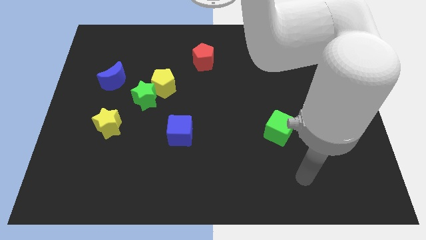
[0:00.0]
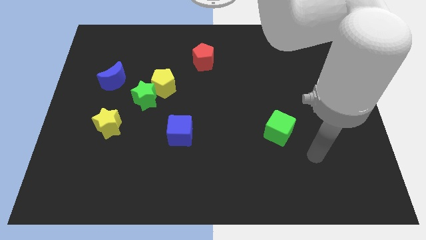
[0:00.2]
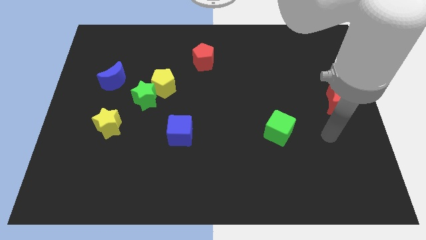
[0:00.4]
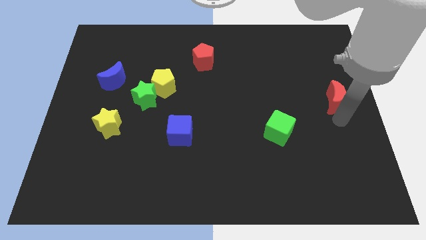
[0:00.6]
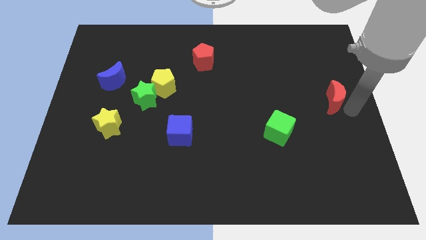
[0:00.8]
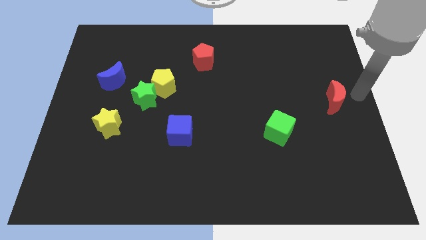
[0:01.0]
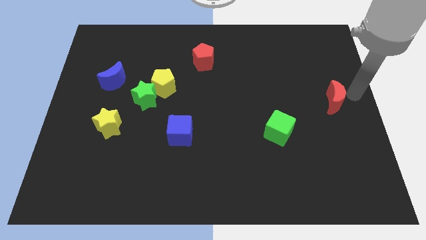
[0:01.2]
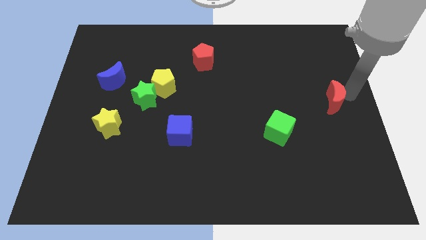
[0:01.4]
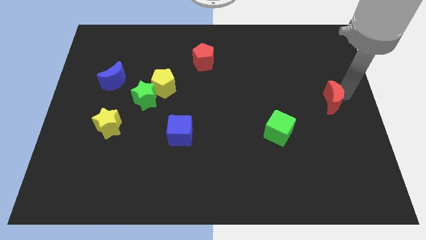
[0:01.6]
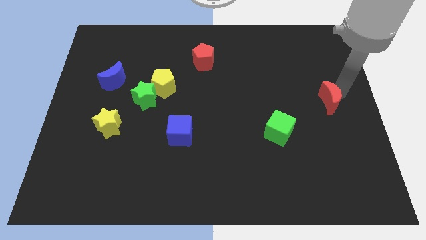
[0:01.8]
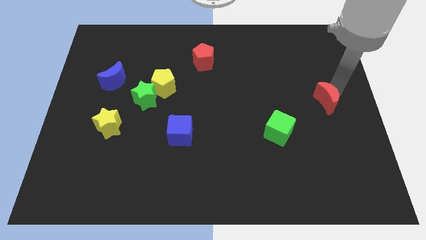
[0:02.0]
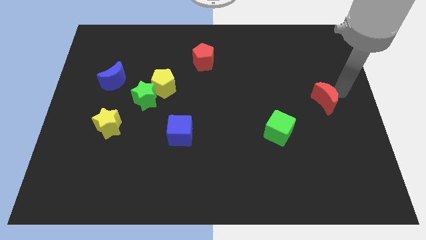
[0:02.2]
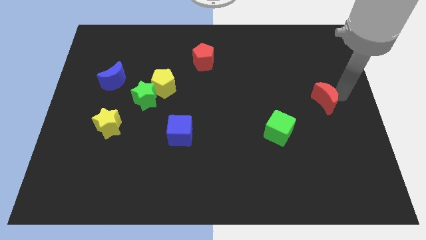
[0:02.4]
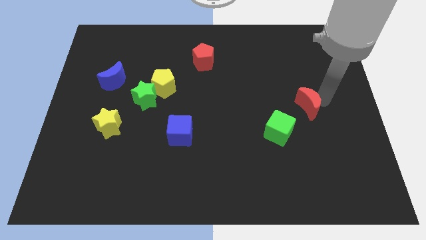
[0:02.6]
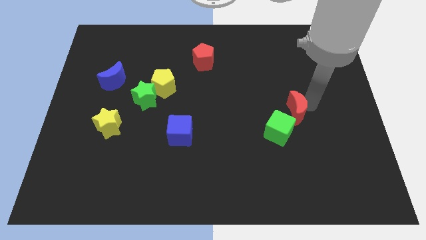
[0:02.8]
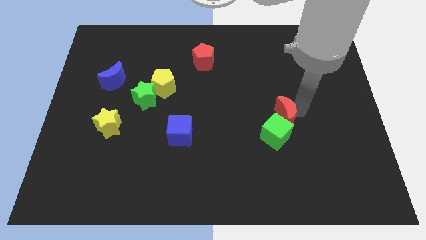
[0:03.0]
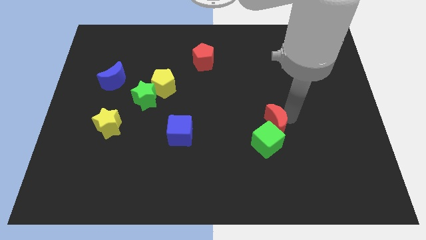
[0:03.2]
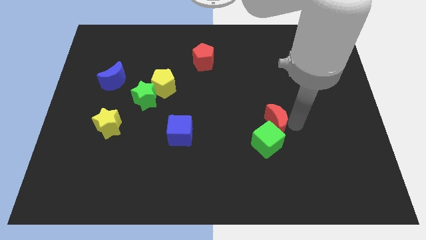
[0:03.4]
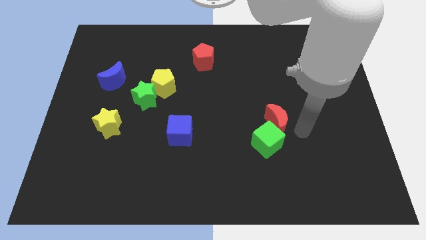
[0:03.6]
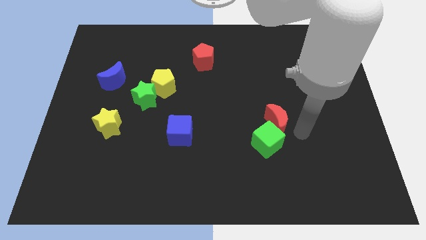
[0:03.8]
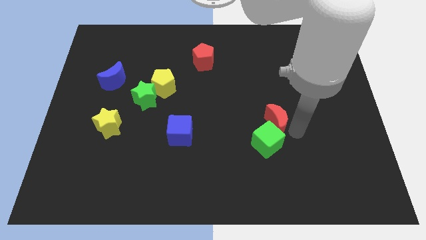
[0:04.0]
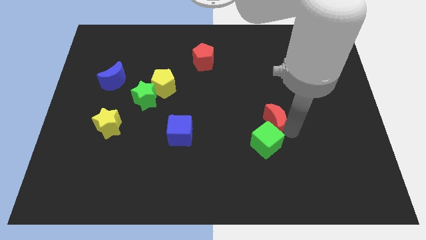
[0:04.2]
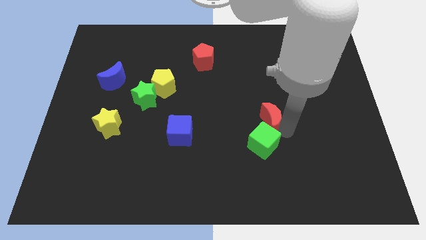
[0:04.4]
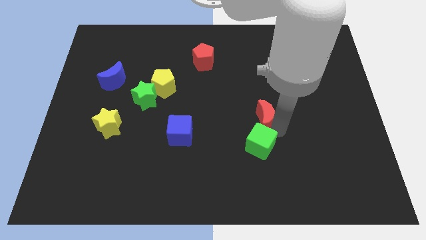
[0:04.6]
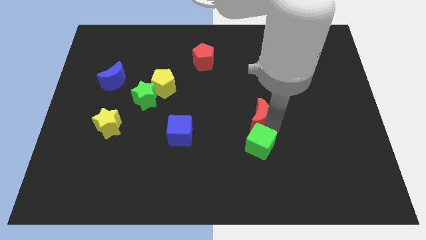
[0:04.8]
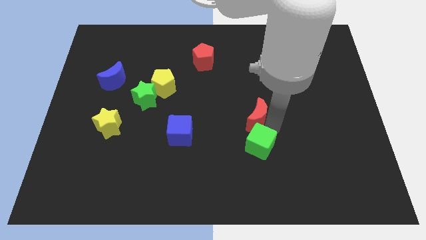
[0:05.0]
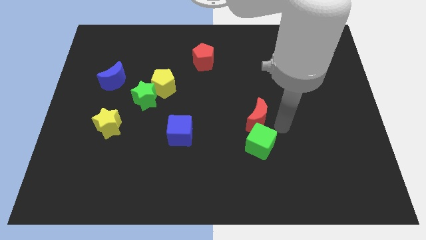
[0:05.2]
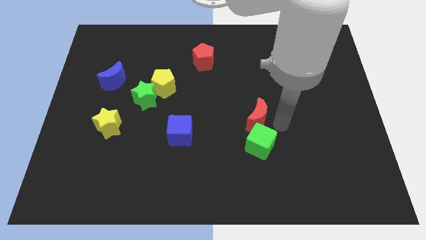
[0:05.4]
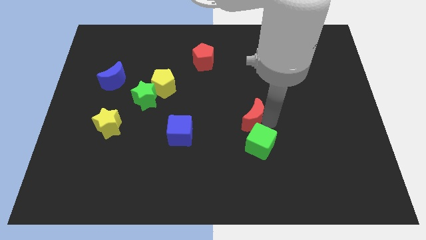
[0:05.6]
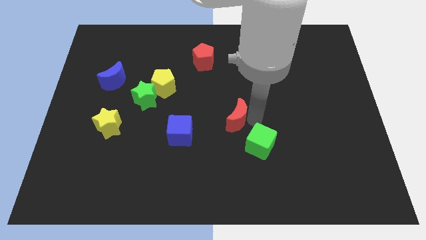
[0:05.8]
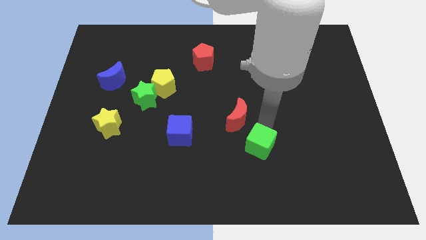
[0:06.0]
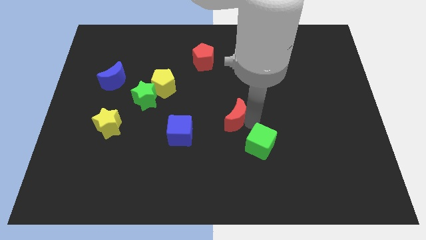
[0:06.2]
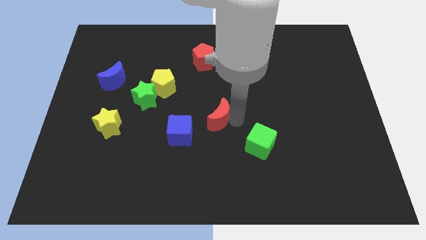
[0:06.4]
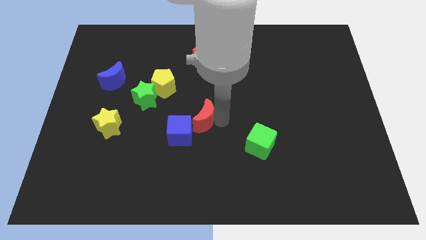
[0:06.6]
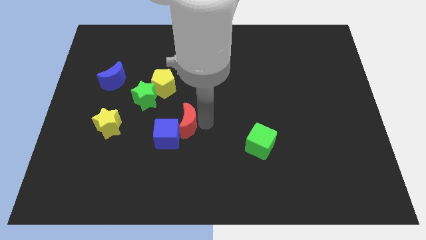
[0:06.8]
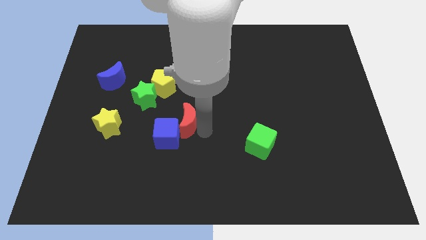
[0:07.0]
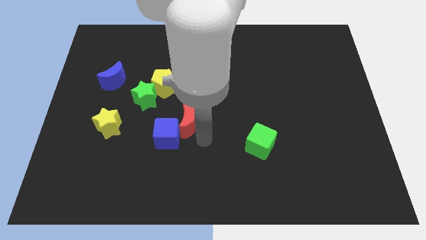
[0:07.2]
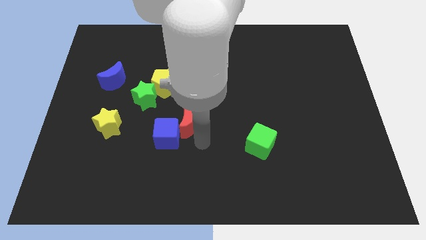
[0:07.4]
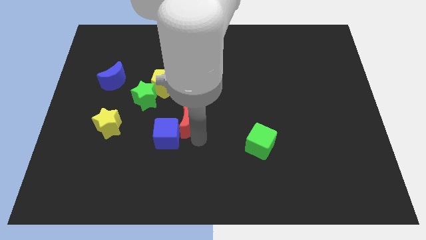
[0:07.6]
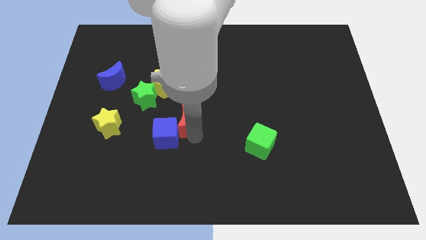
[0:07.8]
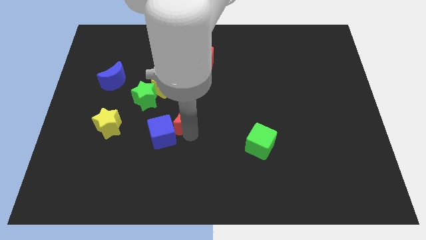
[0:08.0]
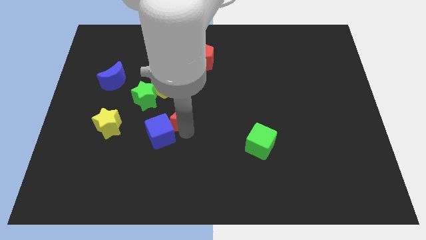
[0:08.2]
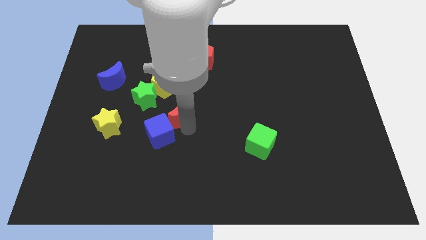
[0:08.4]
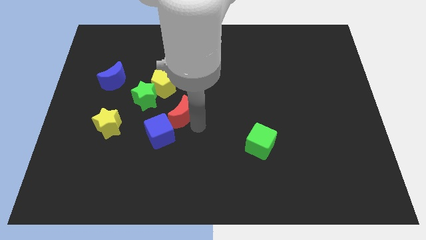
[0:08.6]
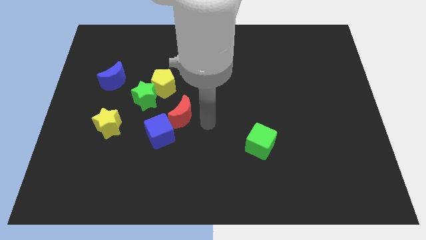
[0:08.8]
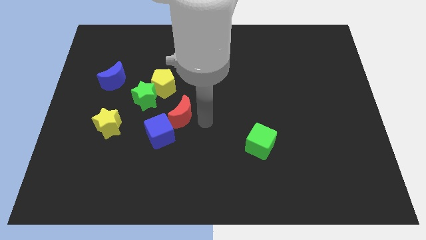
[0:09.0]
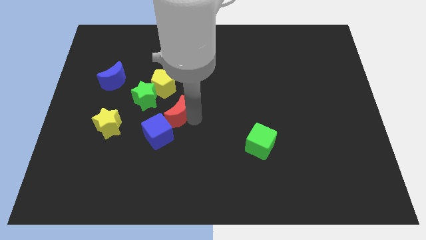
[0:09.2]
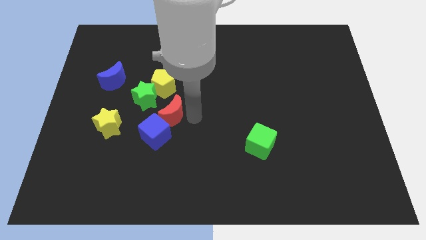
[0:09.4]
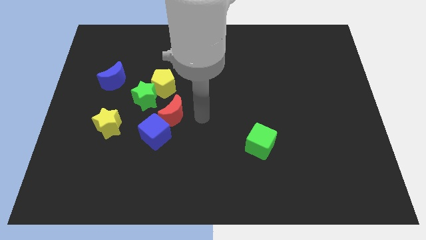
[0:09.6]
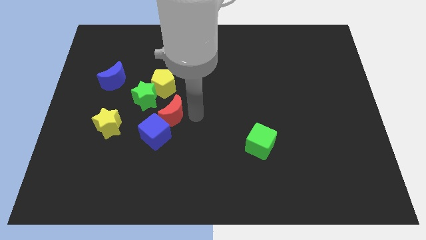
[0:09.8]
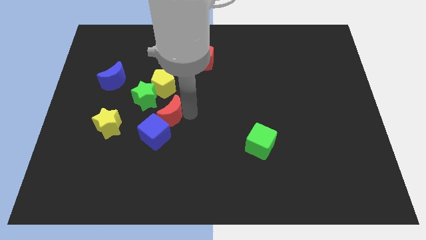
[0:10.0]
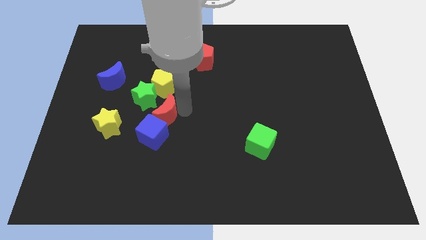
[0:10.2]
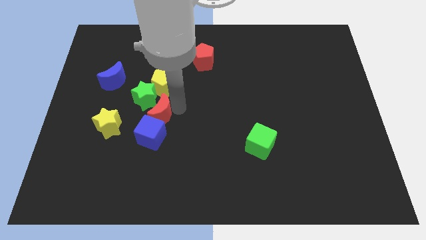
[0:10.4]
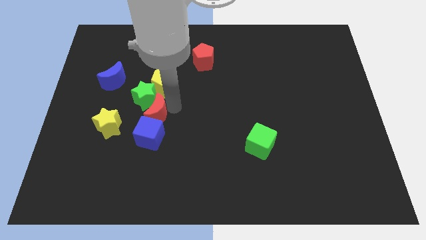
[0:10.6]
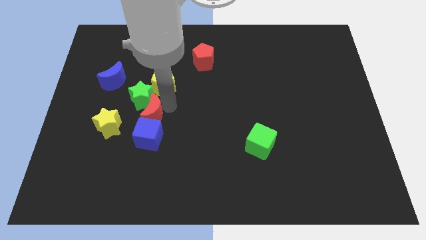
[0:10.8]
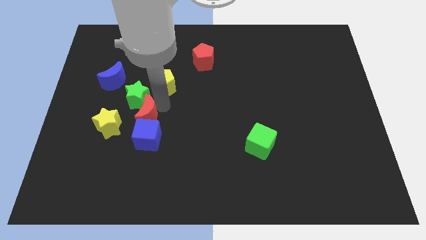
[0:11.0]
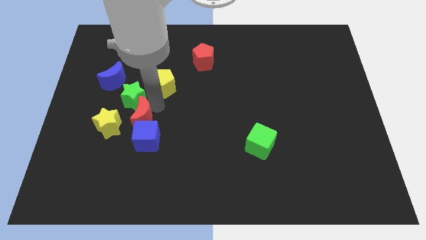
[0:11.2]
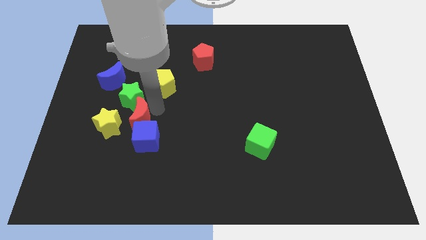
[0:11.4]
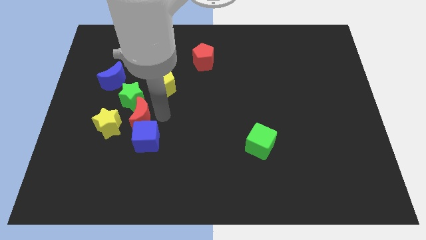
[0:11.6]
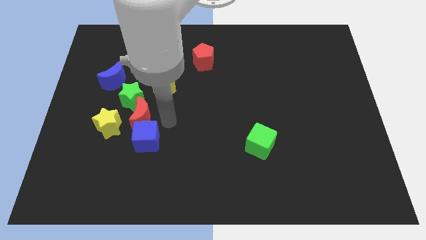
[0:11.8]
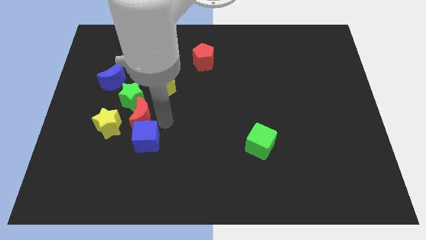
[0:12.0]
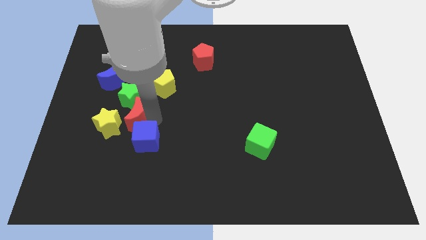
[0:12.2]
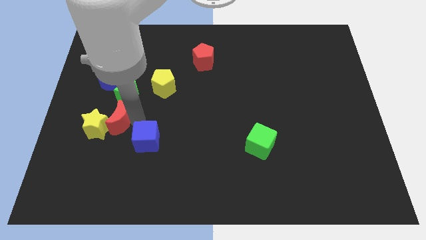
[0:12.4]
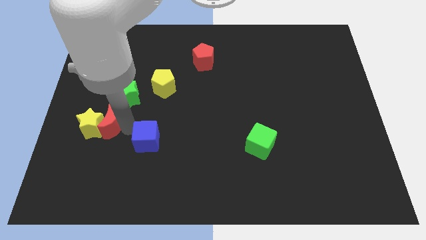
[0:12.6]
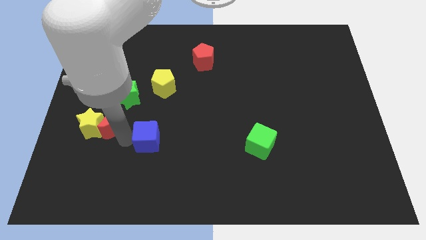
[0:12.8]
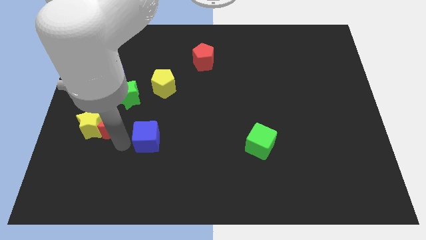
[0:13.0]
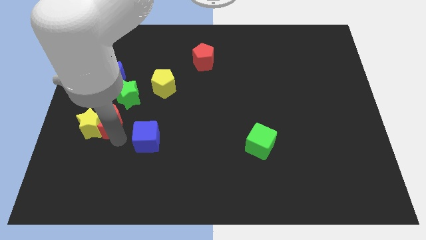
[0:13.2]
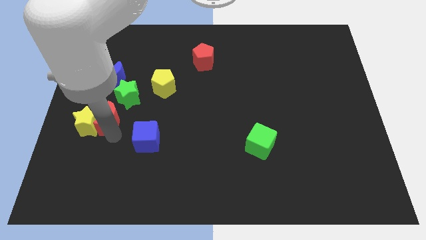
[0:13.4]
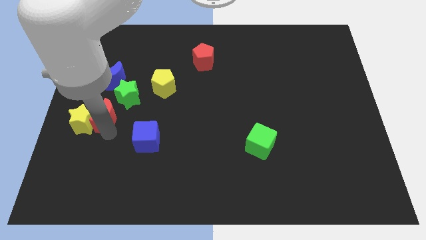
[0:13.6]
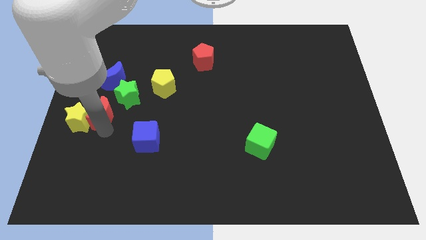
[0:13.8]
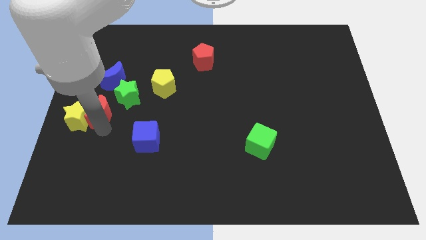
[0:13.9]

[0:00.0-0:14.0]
slide the red moon to the left side
